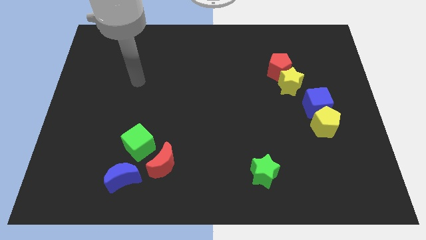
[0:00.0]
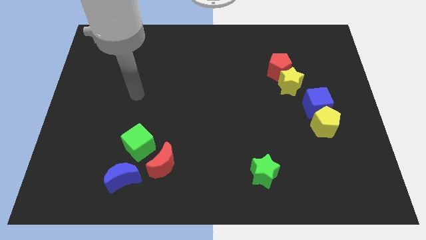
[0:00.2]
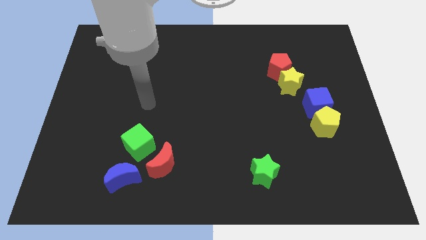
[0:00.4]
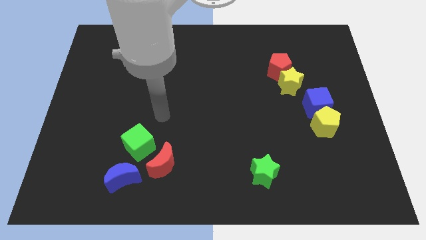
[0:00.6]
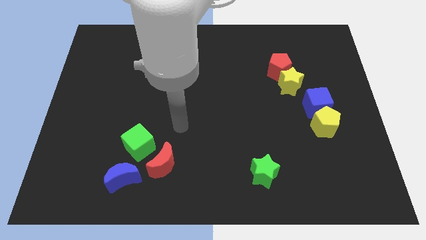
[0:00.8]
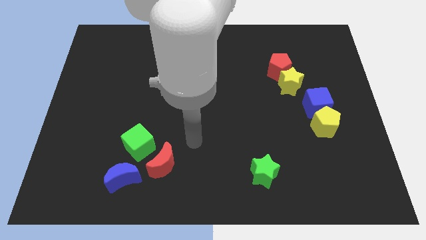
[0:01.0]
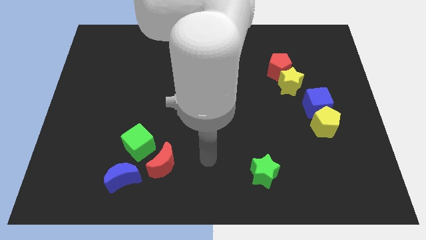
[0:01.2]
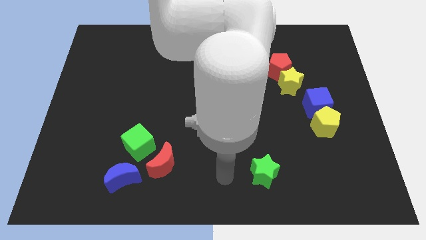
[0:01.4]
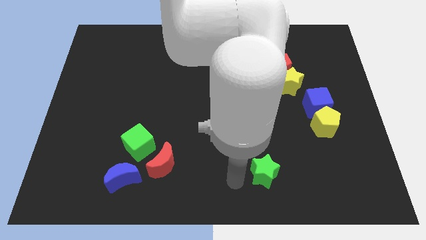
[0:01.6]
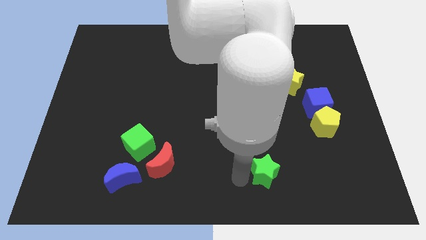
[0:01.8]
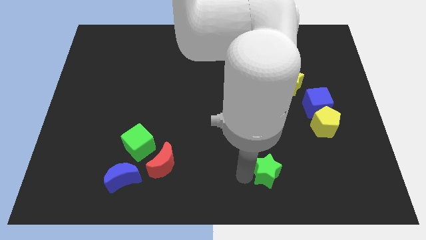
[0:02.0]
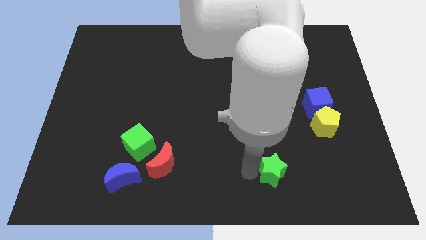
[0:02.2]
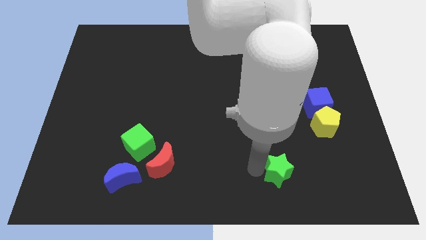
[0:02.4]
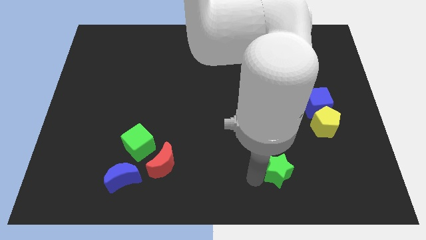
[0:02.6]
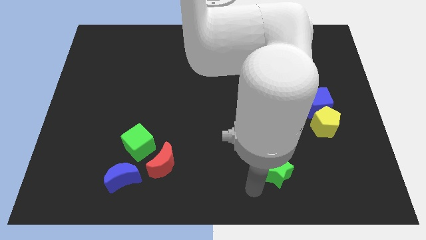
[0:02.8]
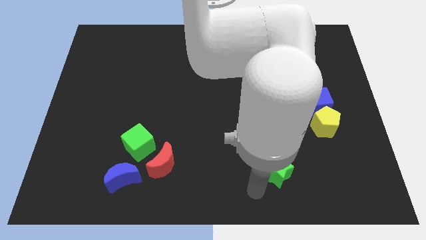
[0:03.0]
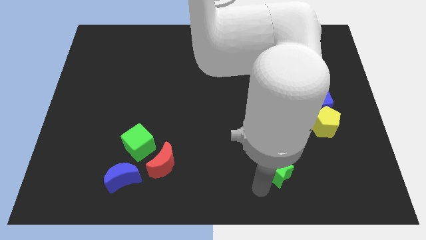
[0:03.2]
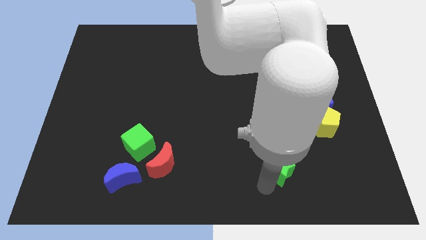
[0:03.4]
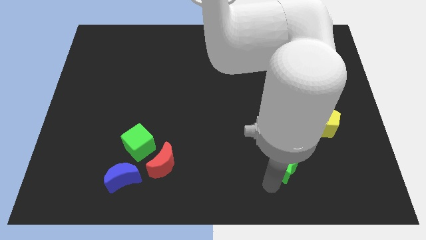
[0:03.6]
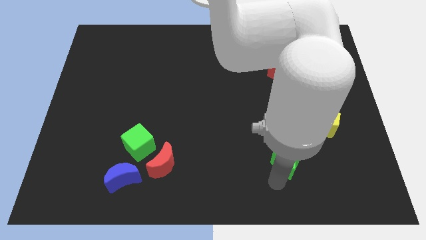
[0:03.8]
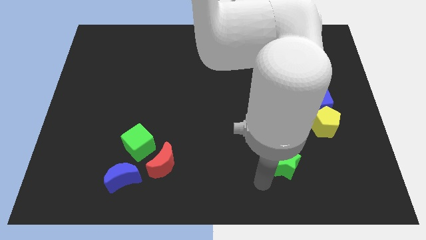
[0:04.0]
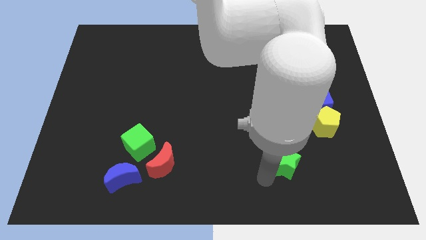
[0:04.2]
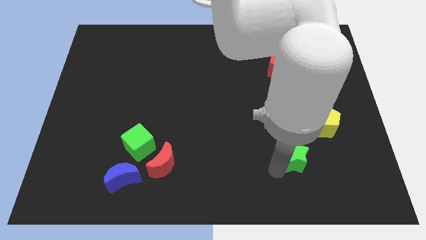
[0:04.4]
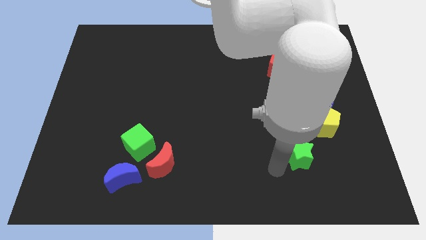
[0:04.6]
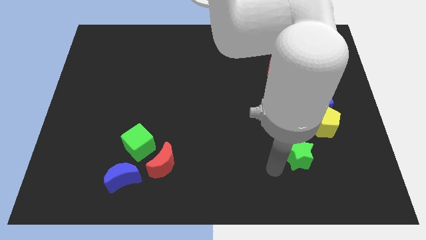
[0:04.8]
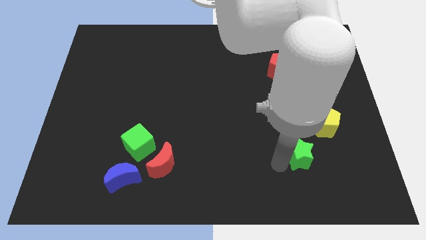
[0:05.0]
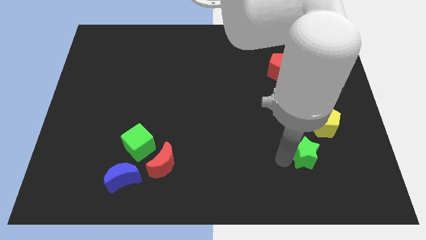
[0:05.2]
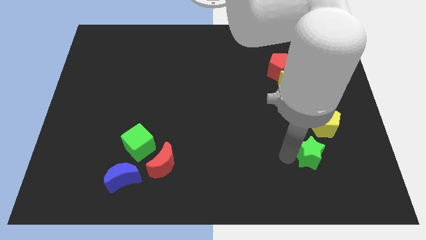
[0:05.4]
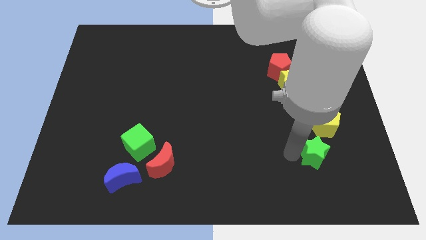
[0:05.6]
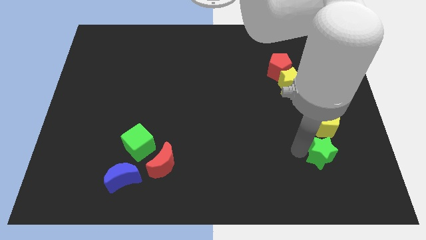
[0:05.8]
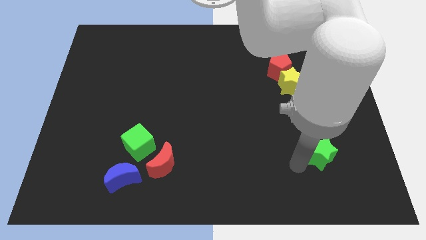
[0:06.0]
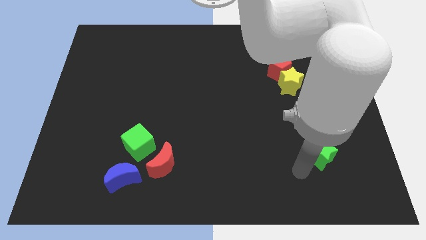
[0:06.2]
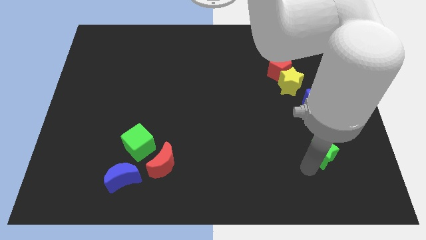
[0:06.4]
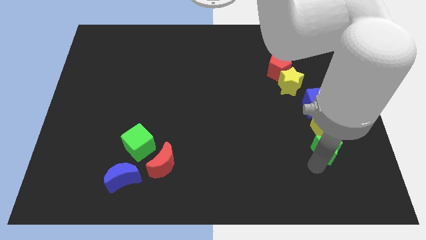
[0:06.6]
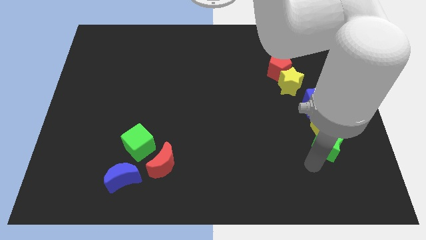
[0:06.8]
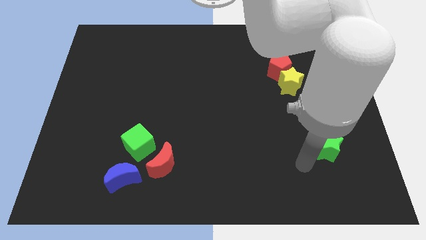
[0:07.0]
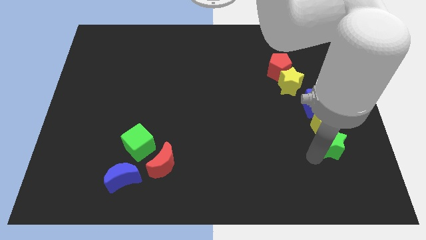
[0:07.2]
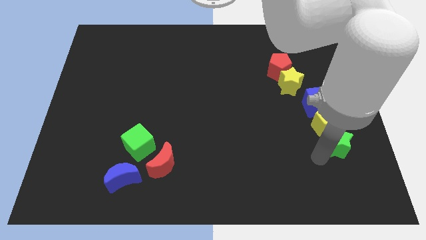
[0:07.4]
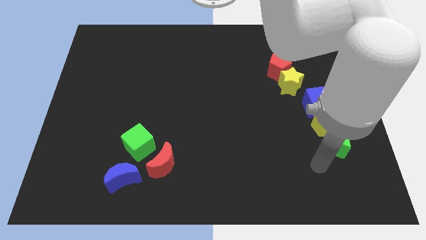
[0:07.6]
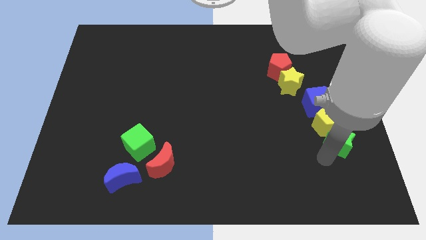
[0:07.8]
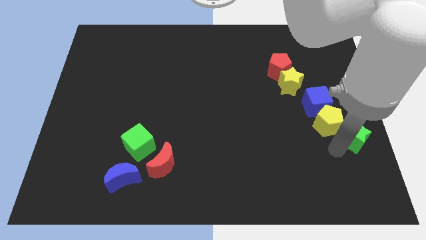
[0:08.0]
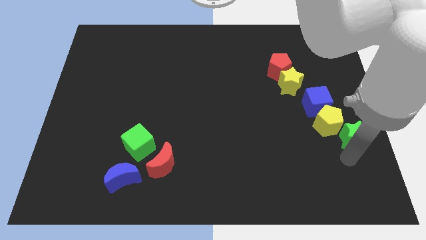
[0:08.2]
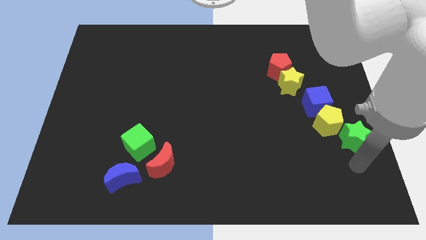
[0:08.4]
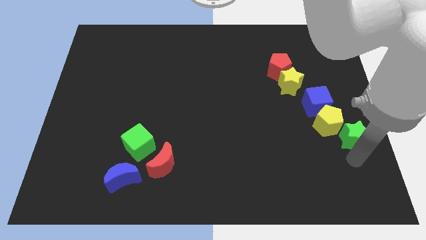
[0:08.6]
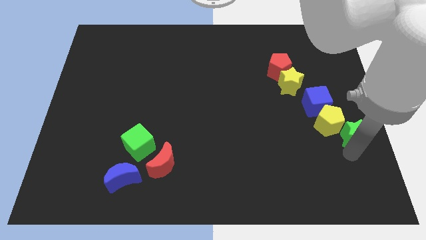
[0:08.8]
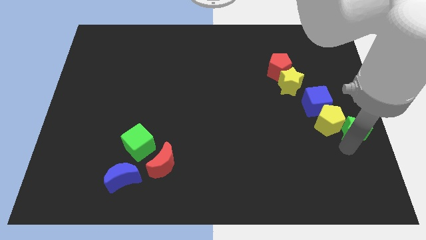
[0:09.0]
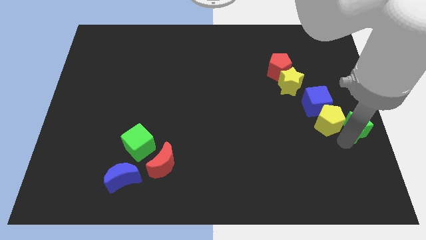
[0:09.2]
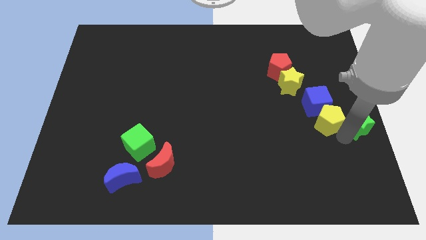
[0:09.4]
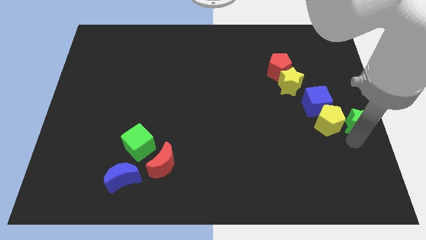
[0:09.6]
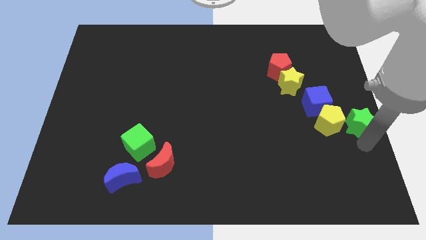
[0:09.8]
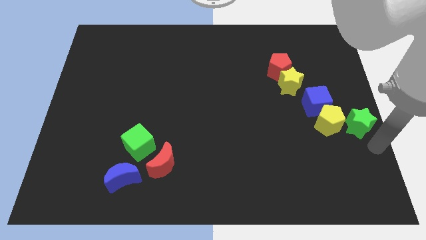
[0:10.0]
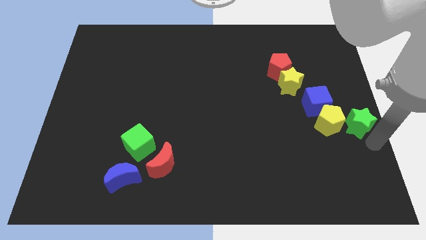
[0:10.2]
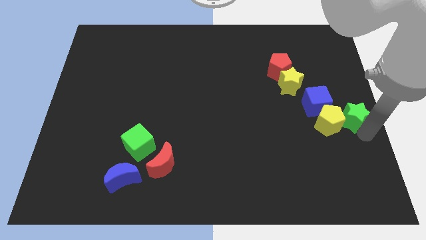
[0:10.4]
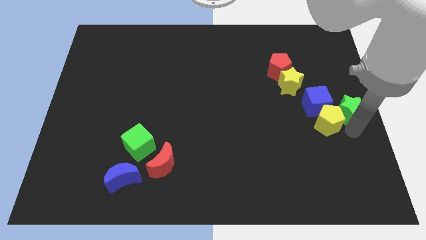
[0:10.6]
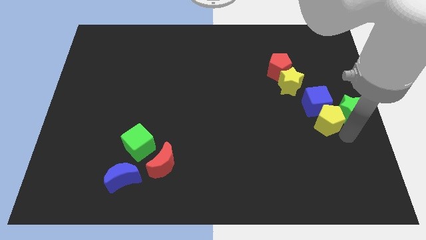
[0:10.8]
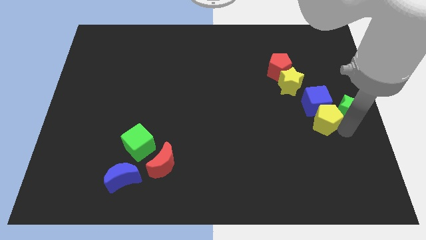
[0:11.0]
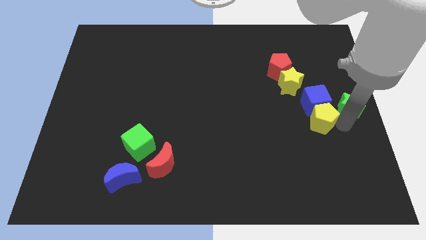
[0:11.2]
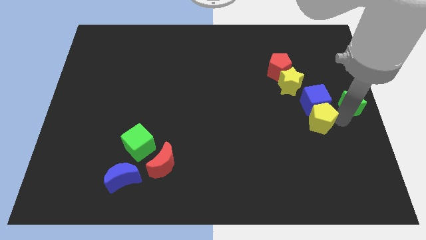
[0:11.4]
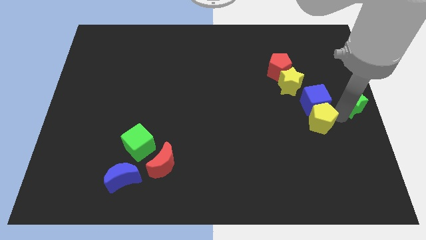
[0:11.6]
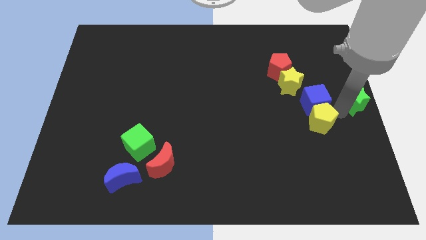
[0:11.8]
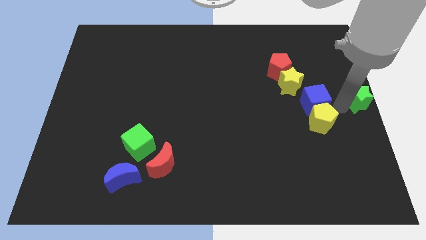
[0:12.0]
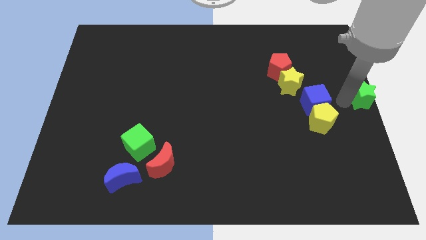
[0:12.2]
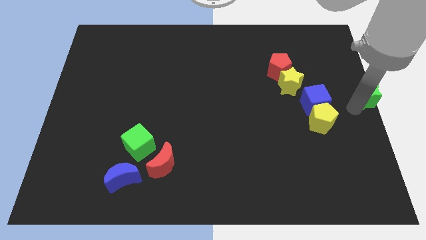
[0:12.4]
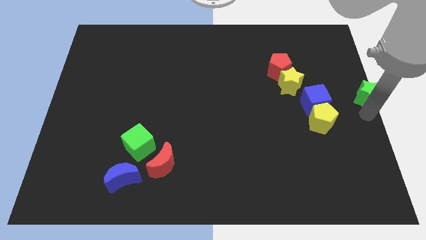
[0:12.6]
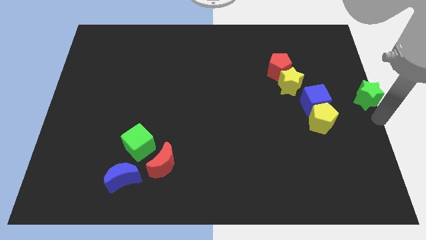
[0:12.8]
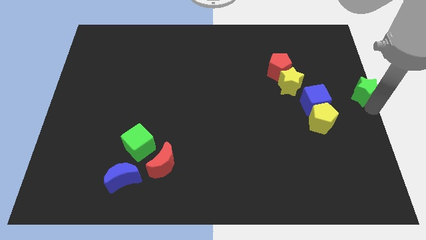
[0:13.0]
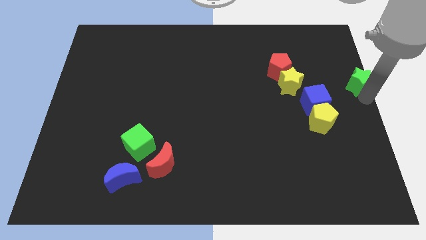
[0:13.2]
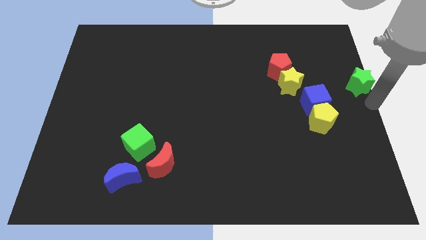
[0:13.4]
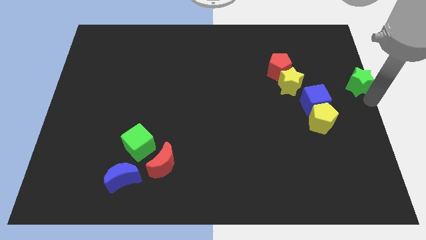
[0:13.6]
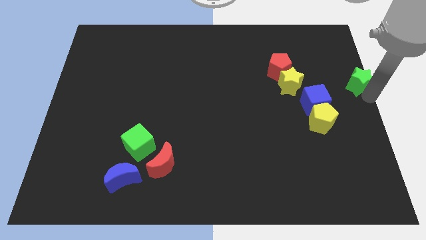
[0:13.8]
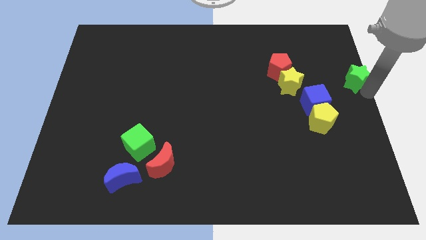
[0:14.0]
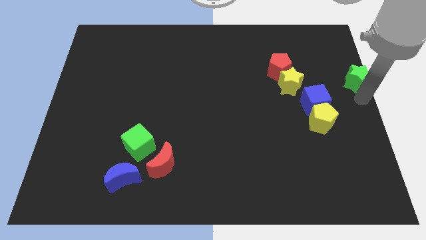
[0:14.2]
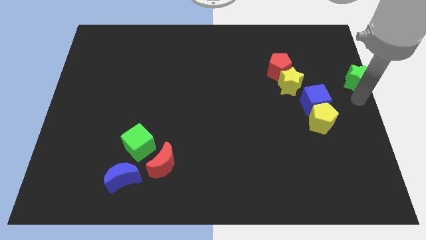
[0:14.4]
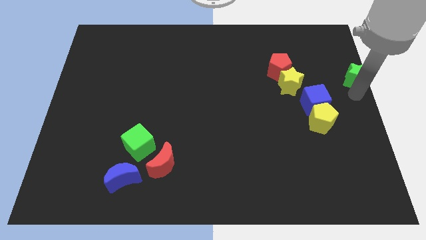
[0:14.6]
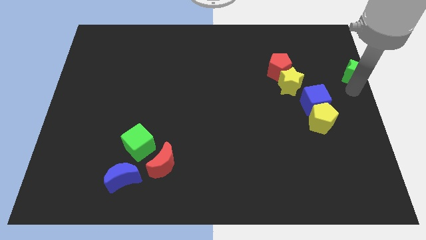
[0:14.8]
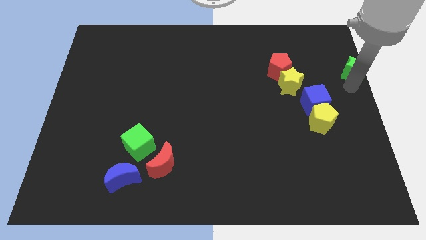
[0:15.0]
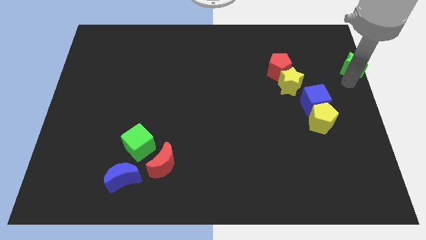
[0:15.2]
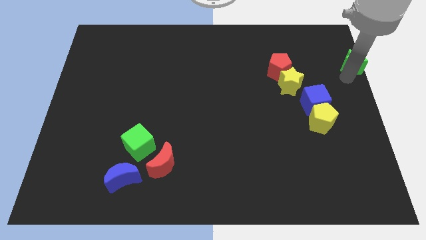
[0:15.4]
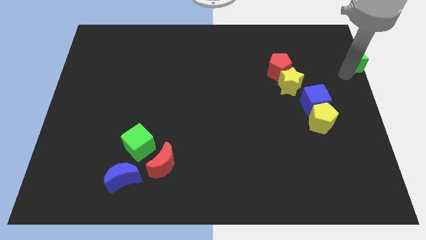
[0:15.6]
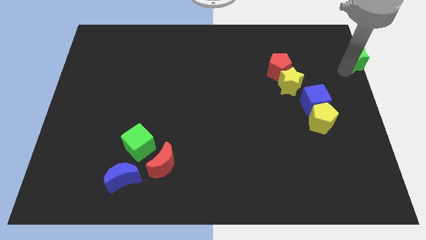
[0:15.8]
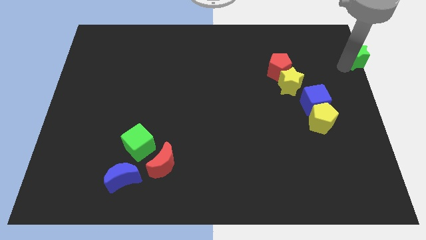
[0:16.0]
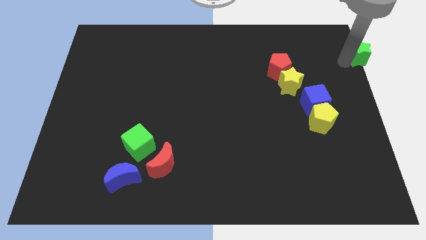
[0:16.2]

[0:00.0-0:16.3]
push the green star to the top right
